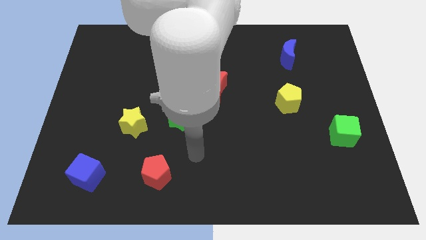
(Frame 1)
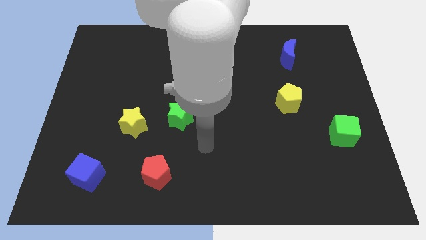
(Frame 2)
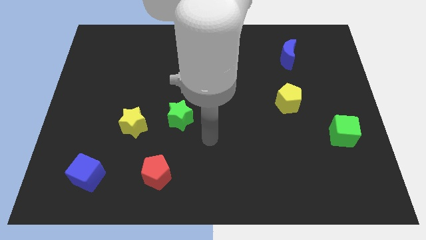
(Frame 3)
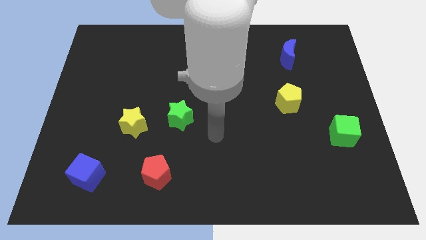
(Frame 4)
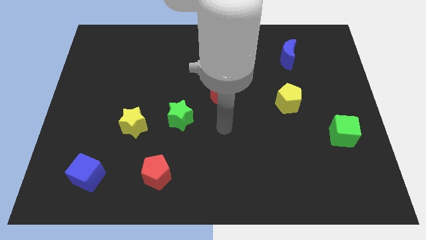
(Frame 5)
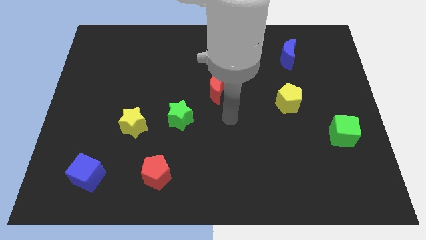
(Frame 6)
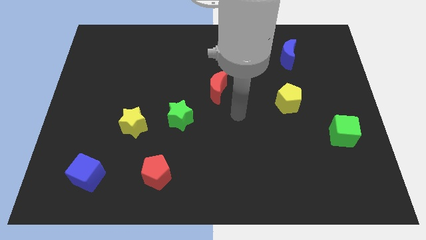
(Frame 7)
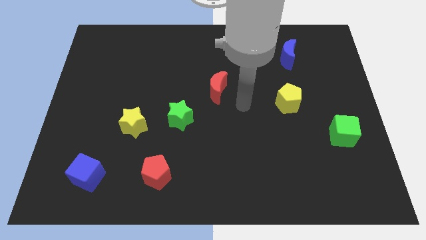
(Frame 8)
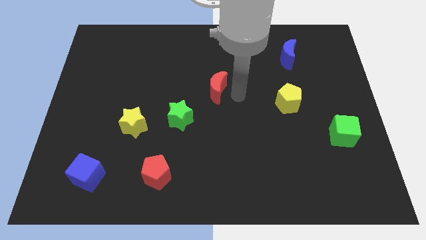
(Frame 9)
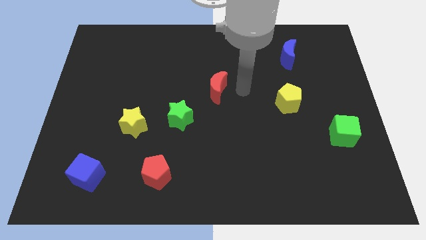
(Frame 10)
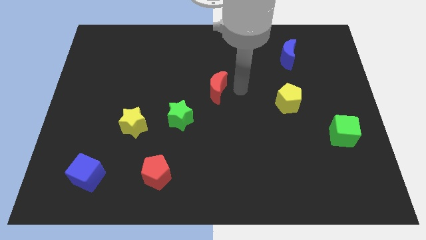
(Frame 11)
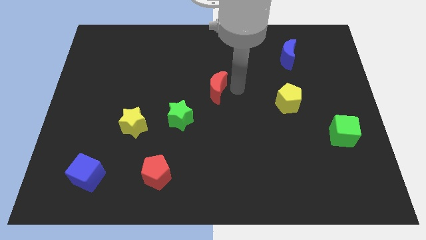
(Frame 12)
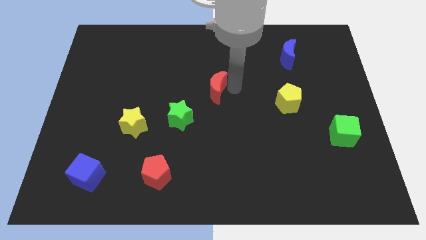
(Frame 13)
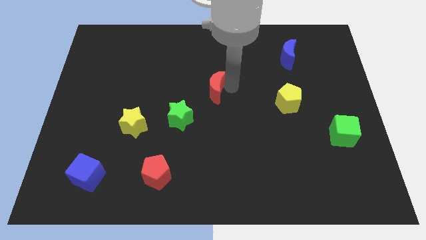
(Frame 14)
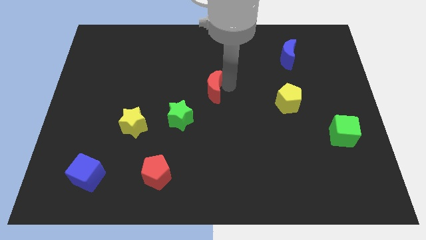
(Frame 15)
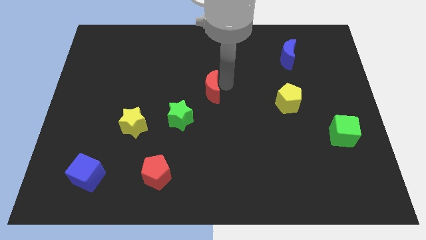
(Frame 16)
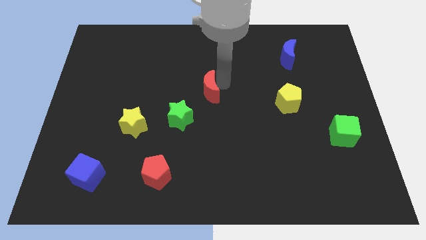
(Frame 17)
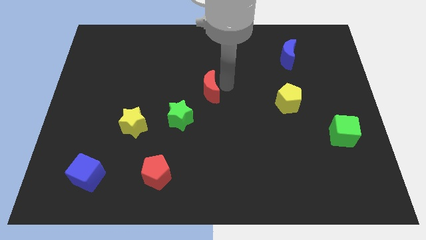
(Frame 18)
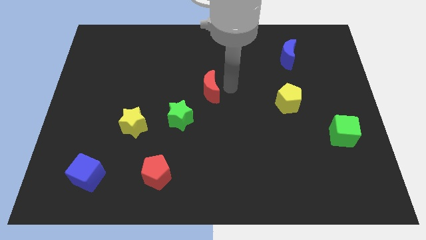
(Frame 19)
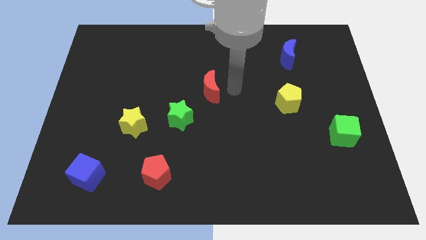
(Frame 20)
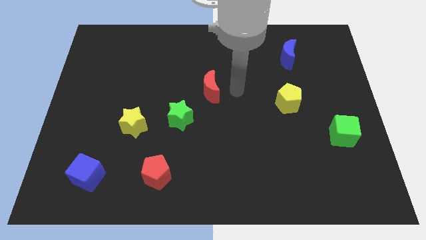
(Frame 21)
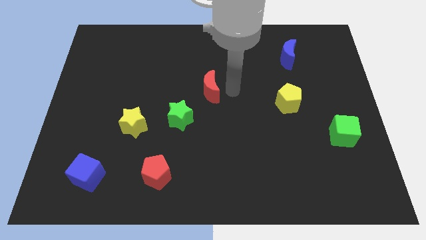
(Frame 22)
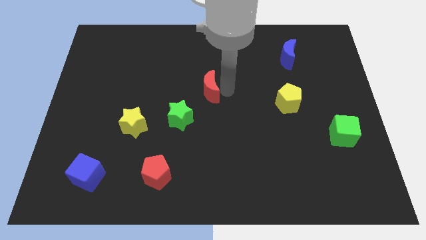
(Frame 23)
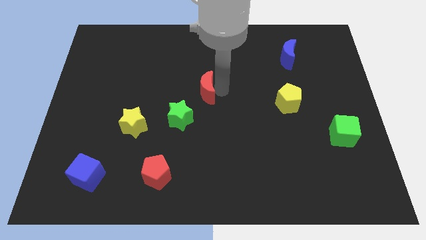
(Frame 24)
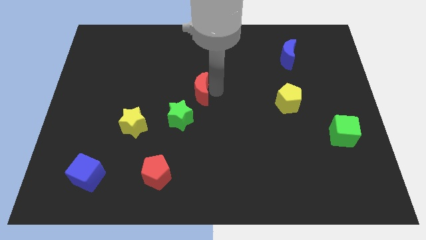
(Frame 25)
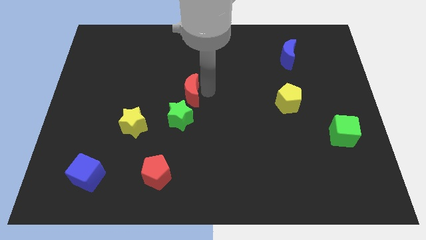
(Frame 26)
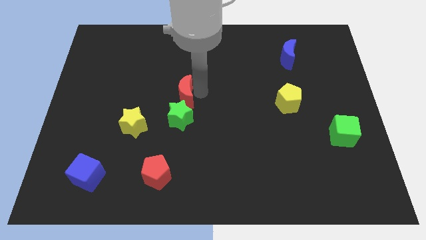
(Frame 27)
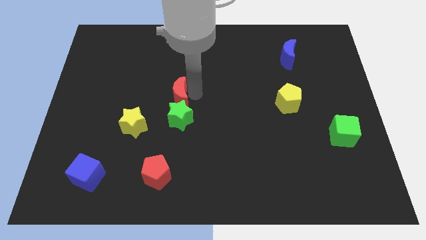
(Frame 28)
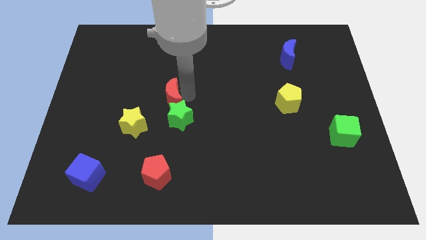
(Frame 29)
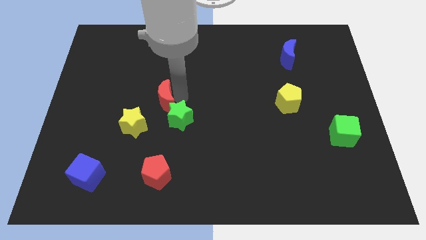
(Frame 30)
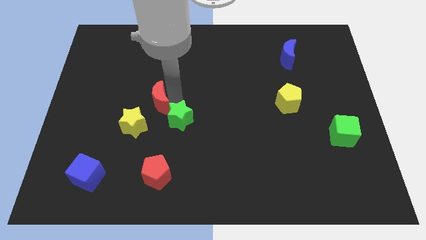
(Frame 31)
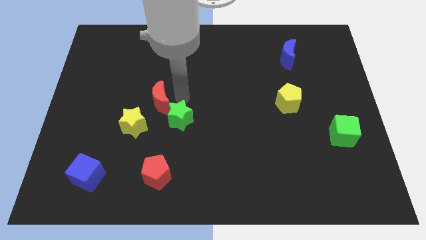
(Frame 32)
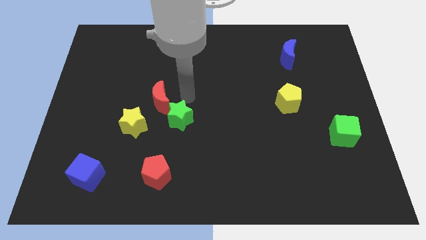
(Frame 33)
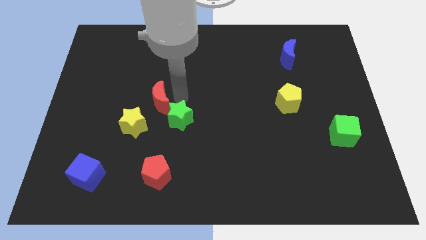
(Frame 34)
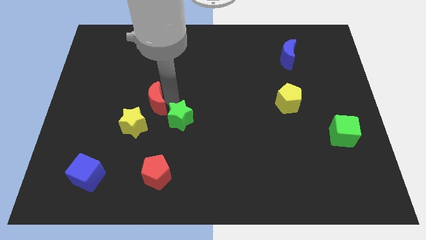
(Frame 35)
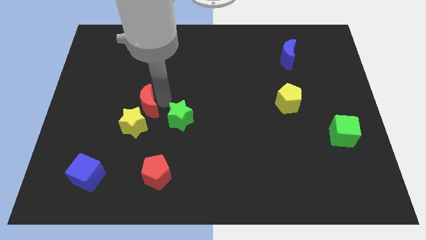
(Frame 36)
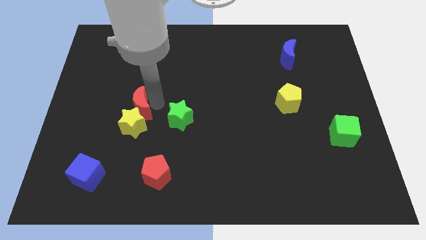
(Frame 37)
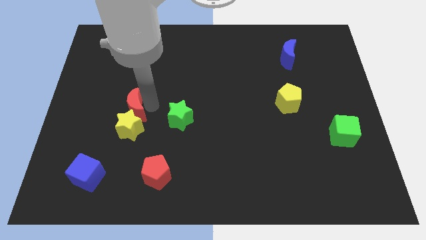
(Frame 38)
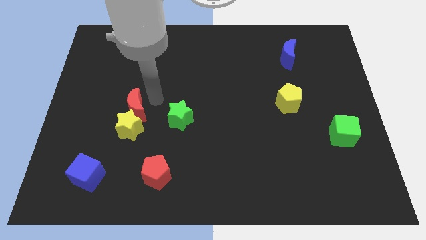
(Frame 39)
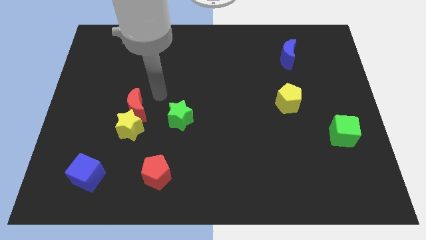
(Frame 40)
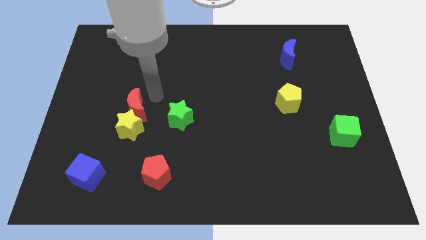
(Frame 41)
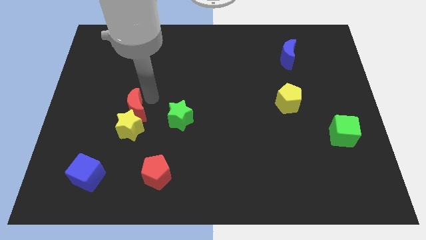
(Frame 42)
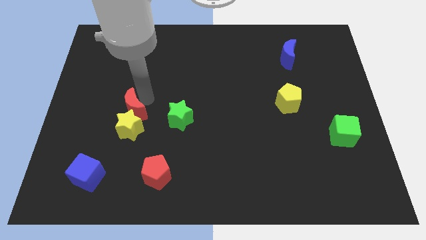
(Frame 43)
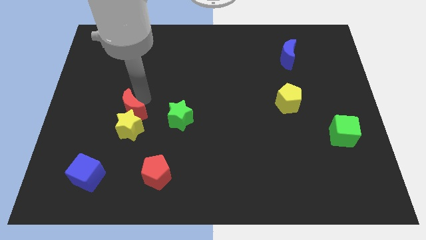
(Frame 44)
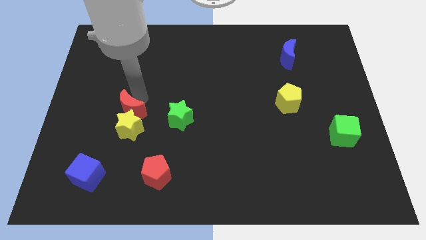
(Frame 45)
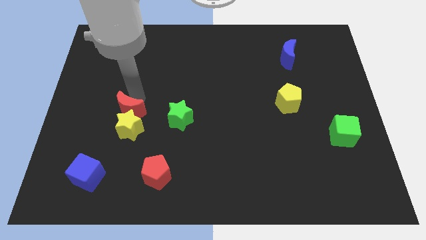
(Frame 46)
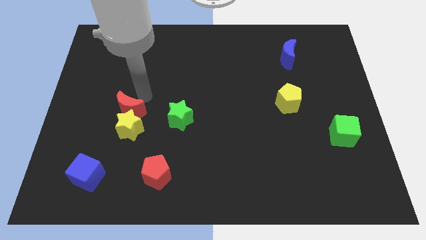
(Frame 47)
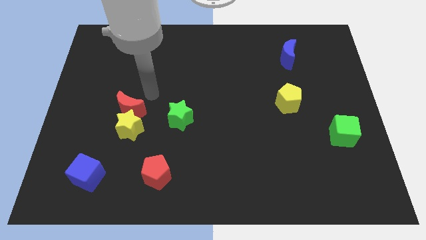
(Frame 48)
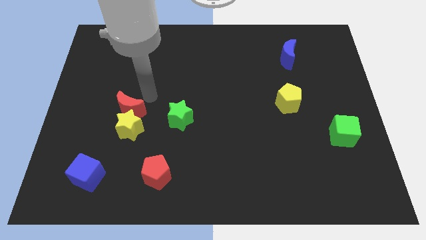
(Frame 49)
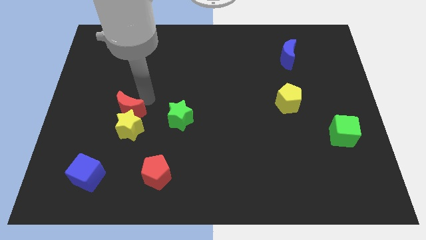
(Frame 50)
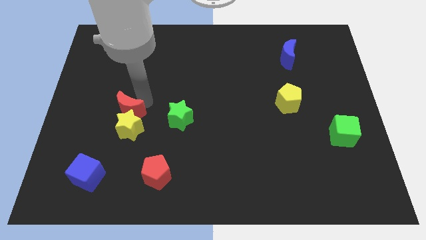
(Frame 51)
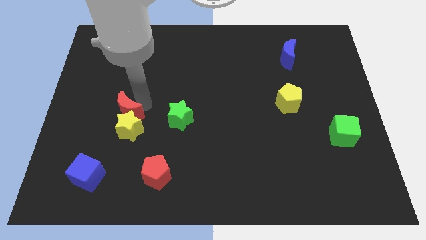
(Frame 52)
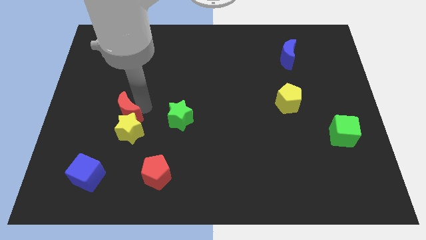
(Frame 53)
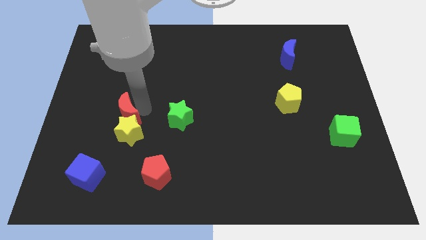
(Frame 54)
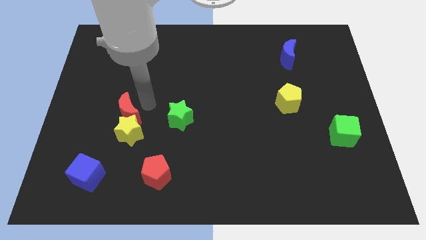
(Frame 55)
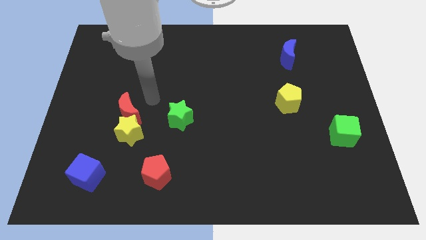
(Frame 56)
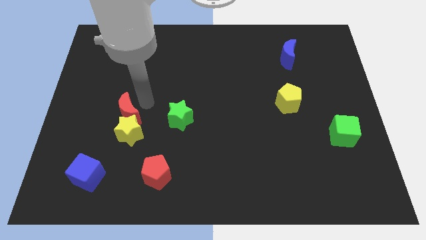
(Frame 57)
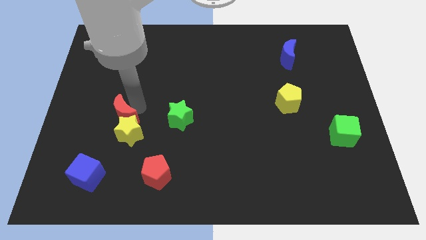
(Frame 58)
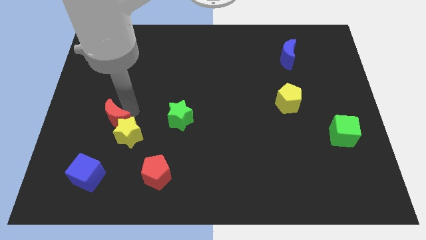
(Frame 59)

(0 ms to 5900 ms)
move the red moon to the top of the blue cube

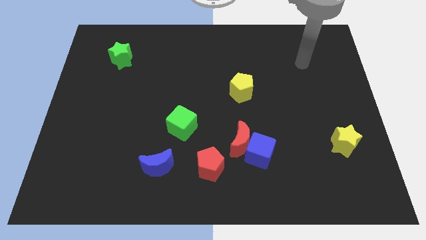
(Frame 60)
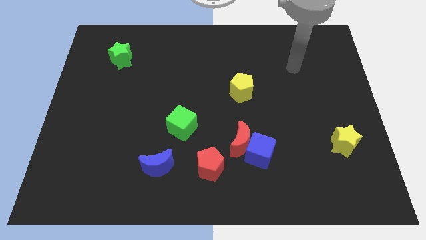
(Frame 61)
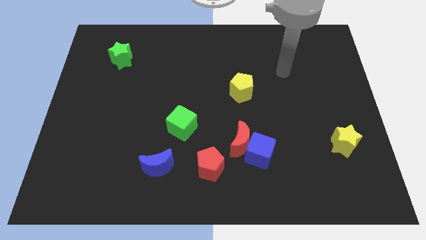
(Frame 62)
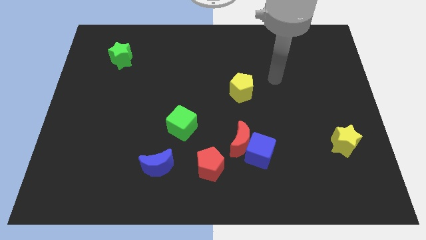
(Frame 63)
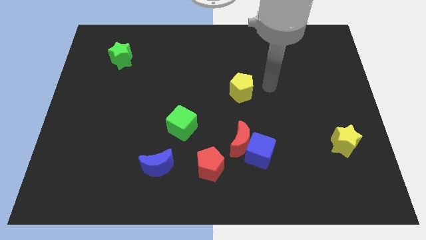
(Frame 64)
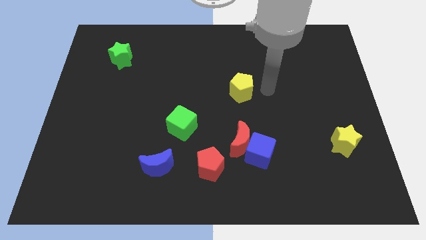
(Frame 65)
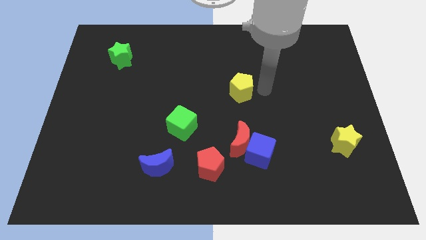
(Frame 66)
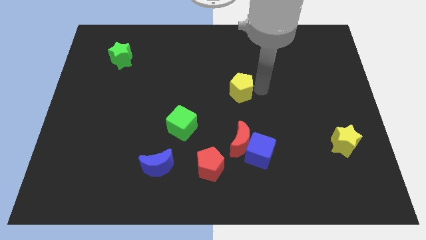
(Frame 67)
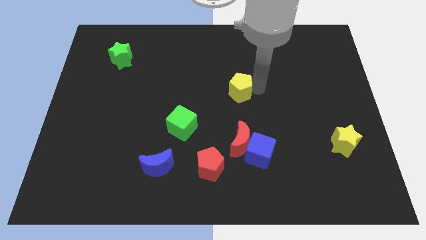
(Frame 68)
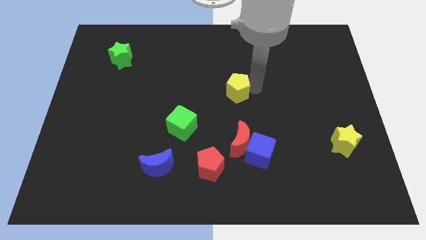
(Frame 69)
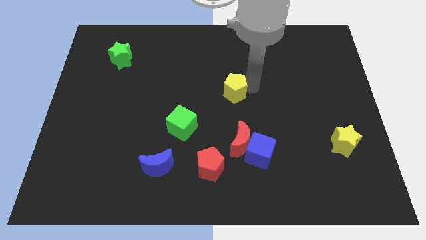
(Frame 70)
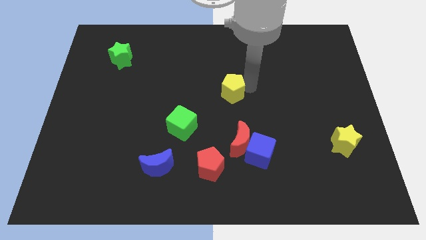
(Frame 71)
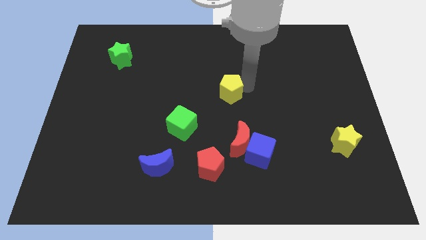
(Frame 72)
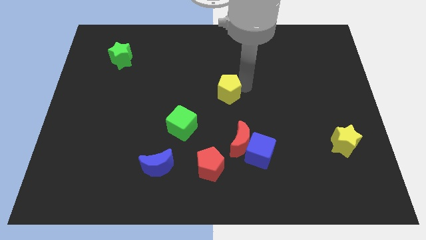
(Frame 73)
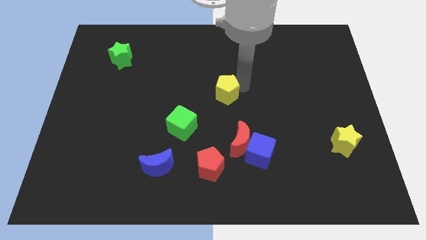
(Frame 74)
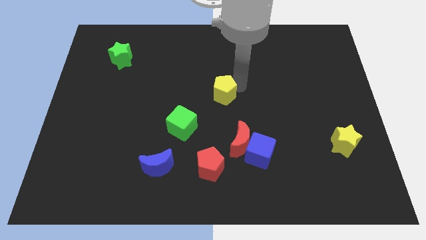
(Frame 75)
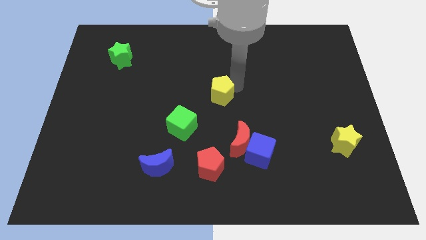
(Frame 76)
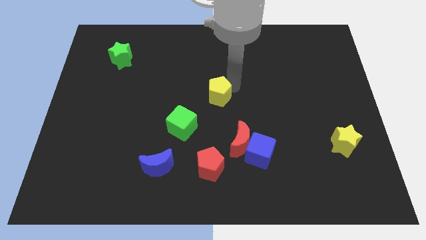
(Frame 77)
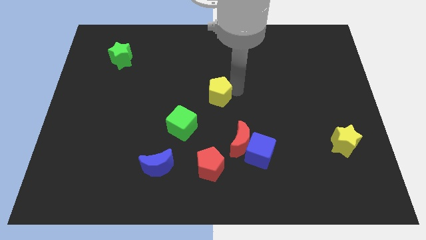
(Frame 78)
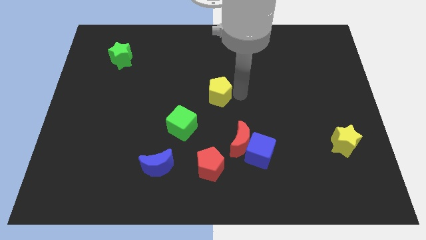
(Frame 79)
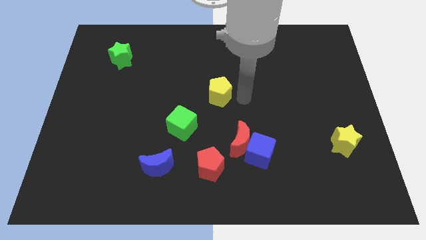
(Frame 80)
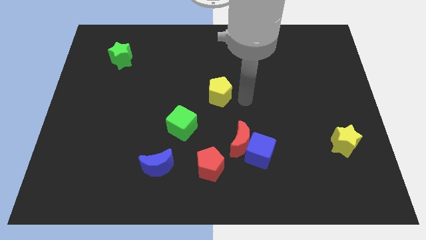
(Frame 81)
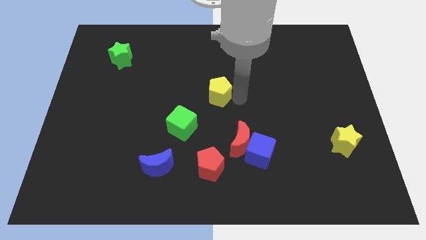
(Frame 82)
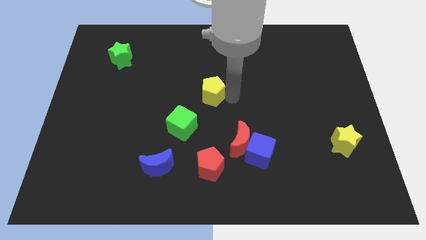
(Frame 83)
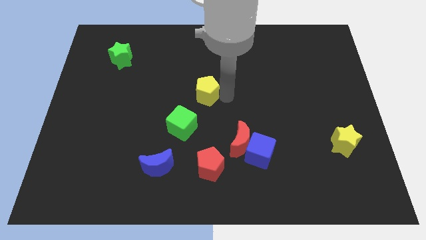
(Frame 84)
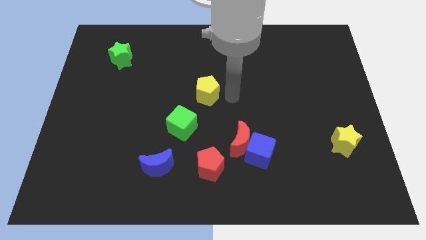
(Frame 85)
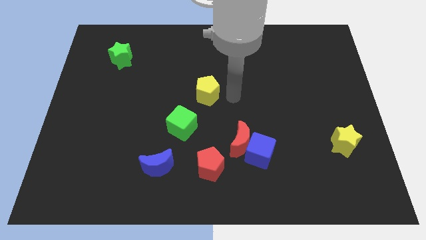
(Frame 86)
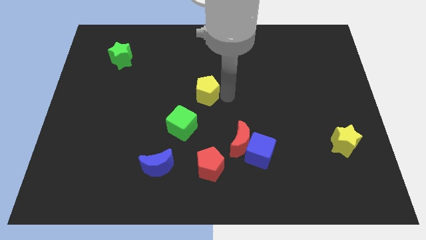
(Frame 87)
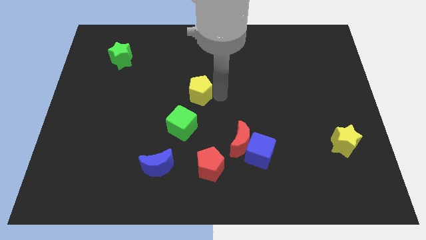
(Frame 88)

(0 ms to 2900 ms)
move the yellow pentagon to the top of the green cube
